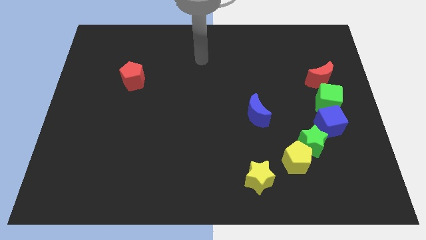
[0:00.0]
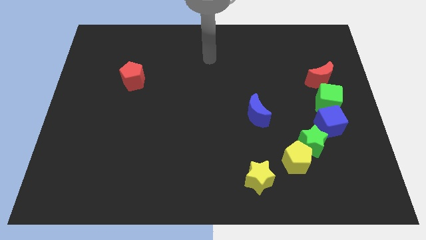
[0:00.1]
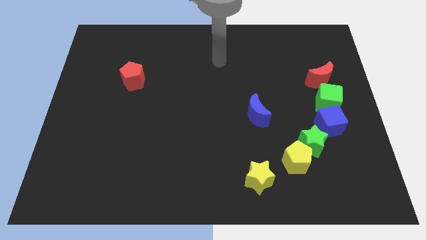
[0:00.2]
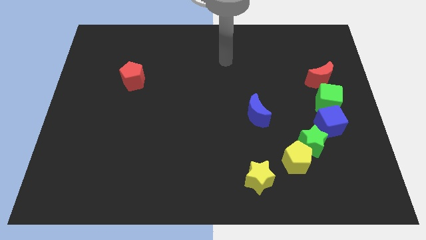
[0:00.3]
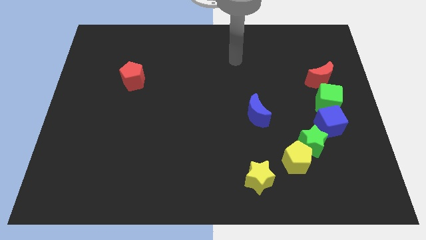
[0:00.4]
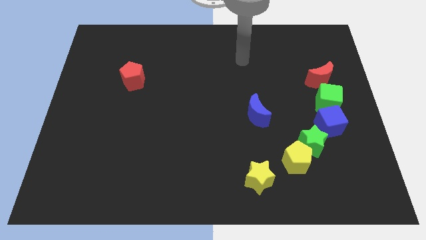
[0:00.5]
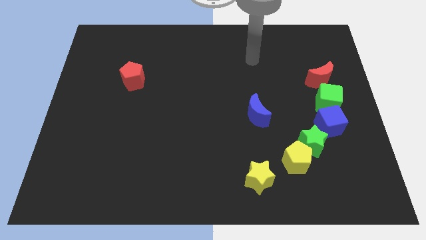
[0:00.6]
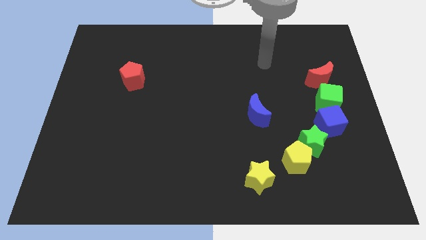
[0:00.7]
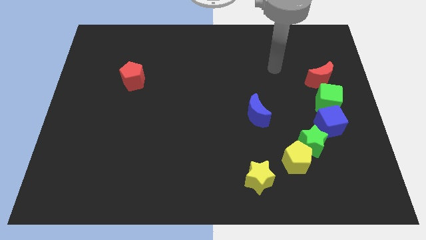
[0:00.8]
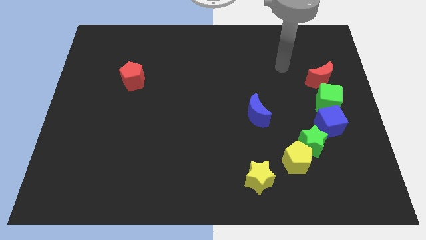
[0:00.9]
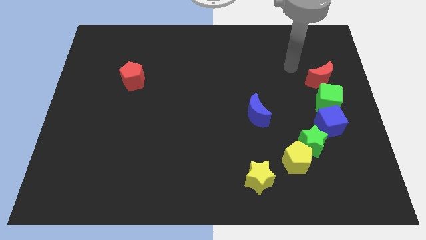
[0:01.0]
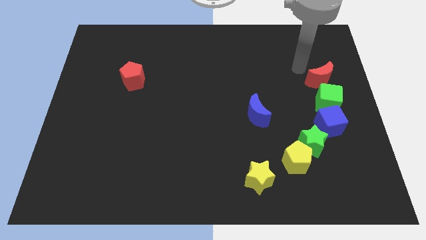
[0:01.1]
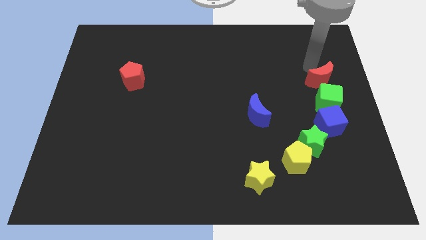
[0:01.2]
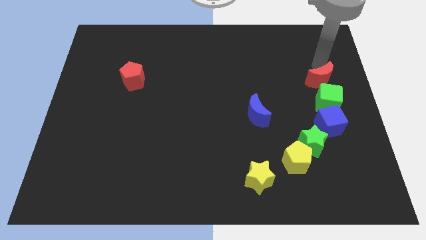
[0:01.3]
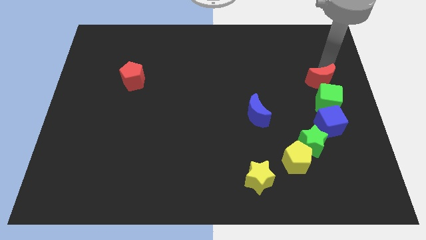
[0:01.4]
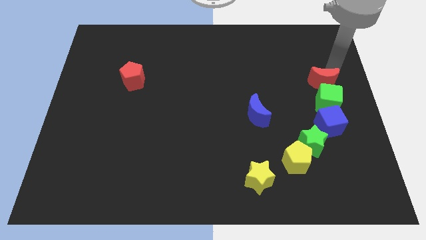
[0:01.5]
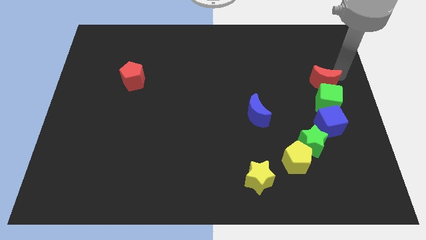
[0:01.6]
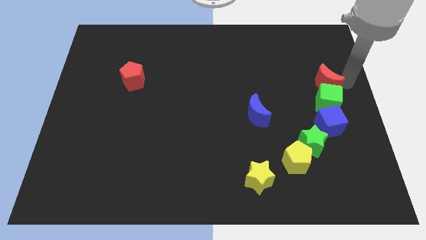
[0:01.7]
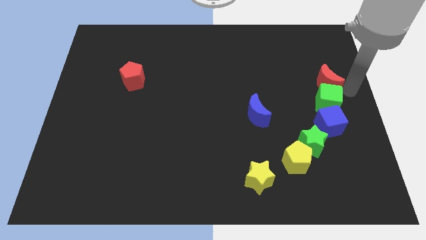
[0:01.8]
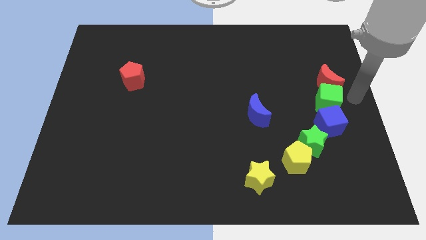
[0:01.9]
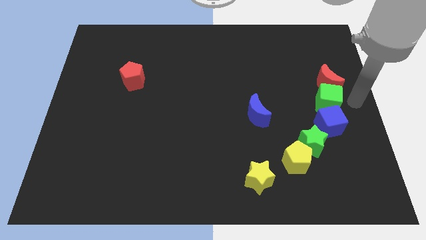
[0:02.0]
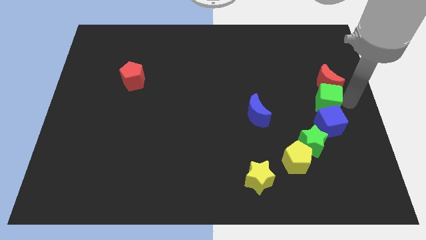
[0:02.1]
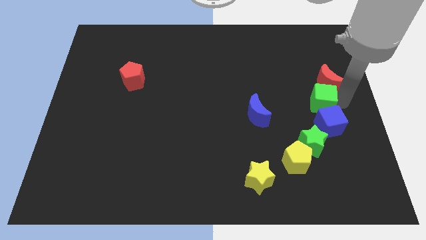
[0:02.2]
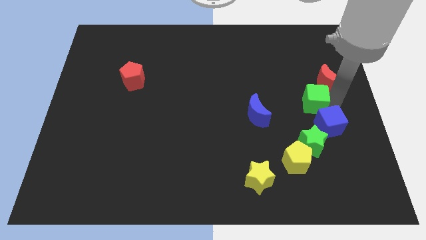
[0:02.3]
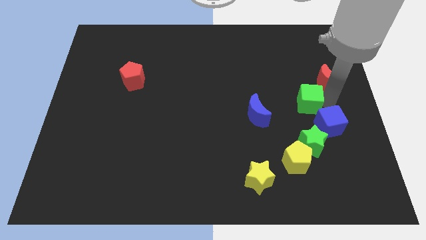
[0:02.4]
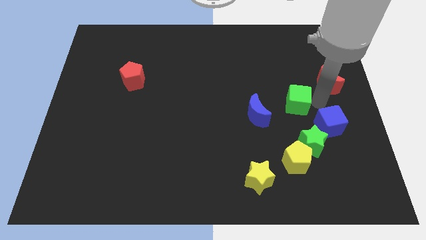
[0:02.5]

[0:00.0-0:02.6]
push the green cube to the left a little bit

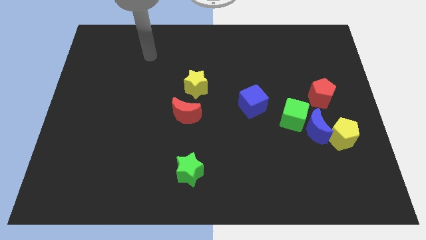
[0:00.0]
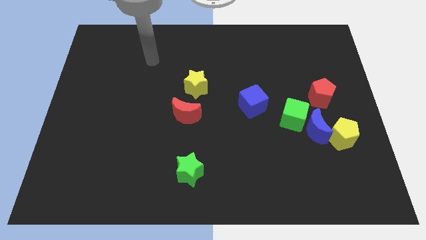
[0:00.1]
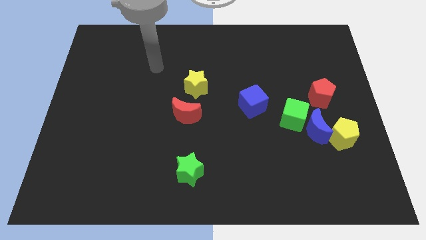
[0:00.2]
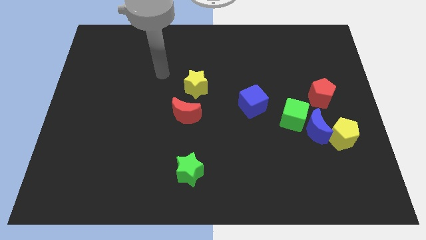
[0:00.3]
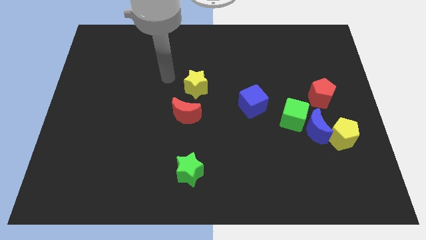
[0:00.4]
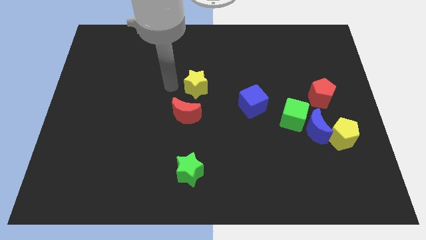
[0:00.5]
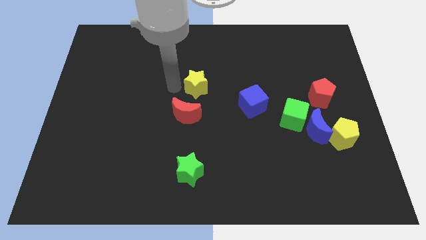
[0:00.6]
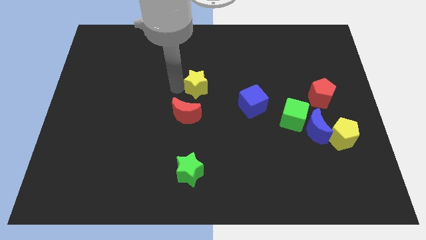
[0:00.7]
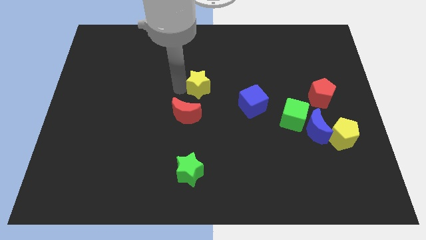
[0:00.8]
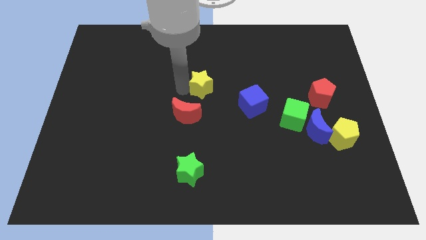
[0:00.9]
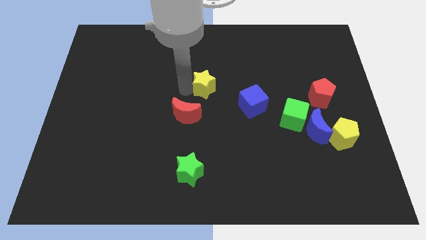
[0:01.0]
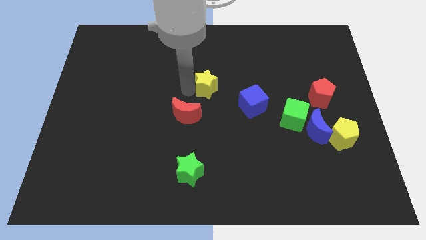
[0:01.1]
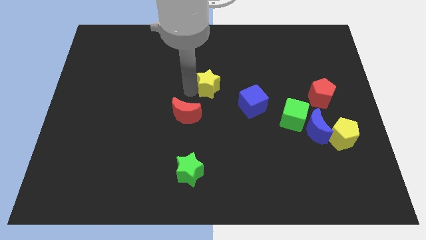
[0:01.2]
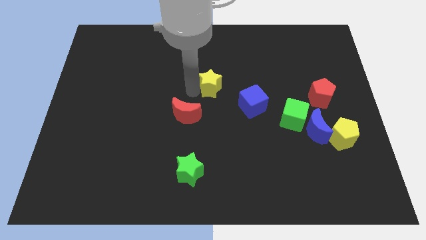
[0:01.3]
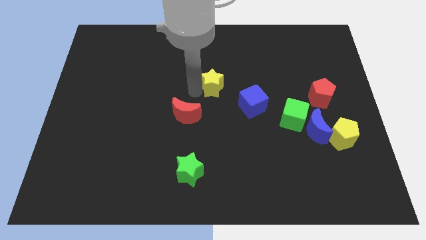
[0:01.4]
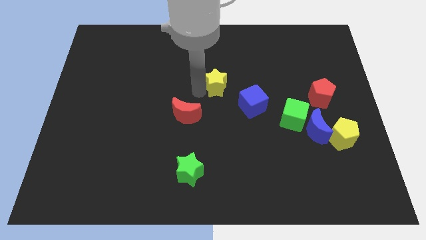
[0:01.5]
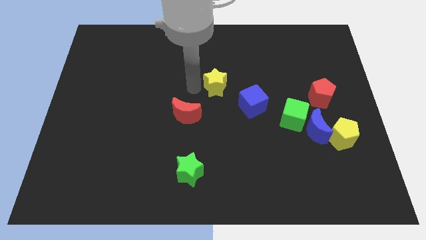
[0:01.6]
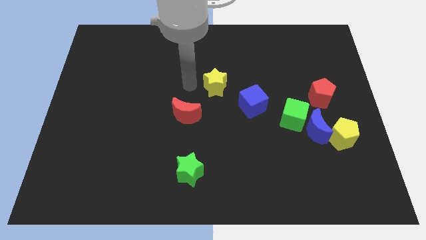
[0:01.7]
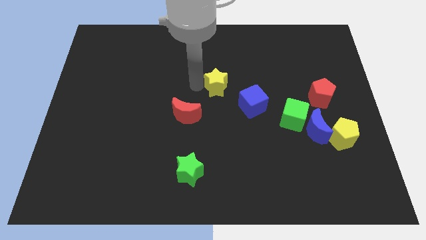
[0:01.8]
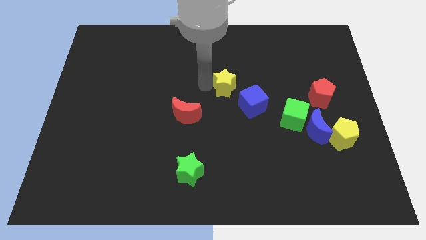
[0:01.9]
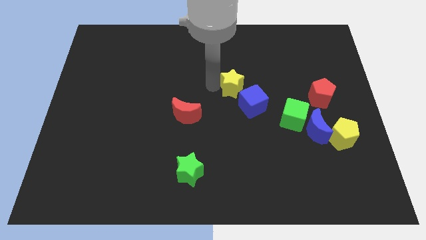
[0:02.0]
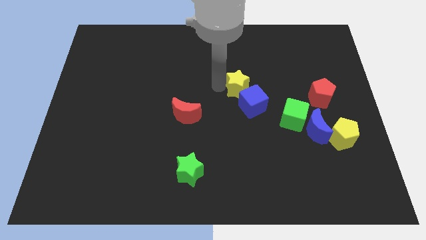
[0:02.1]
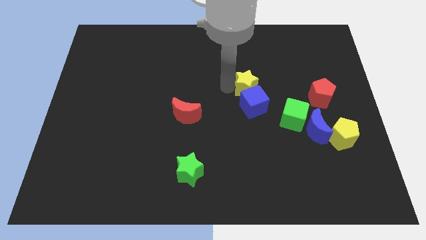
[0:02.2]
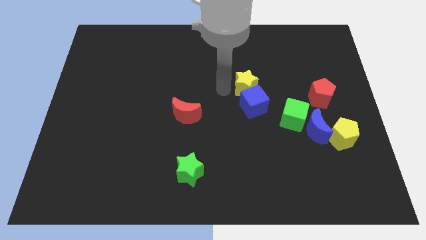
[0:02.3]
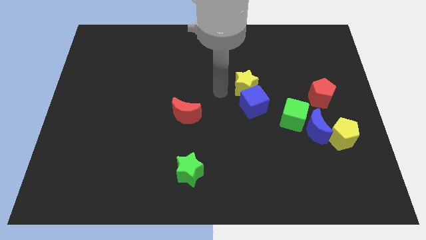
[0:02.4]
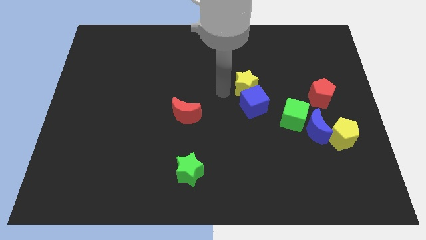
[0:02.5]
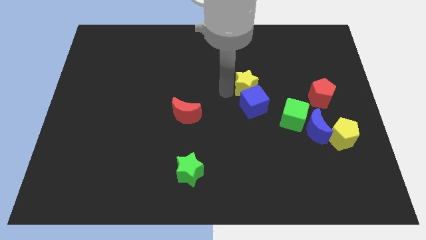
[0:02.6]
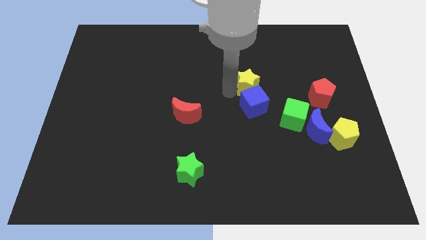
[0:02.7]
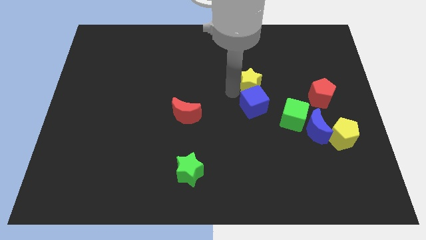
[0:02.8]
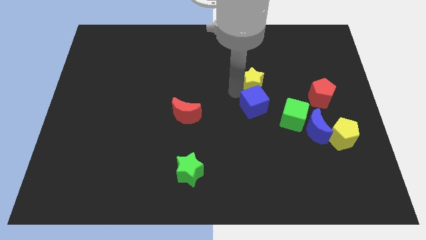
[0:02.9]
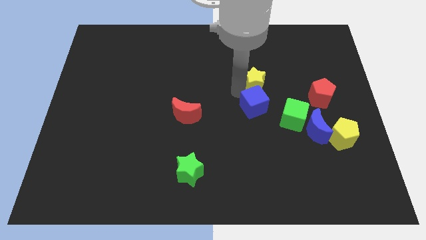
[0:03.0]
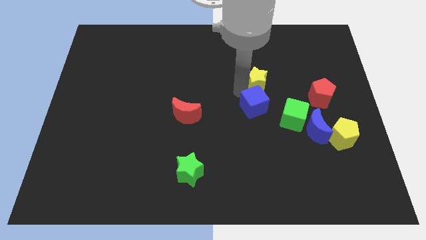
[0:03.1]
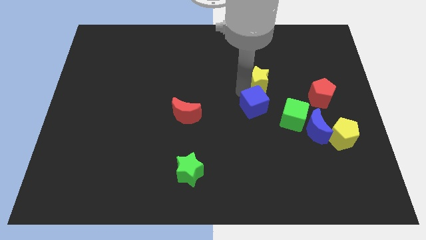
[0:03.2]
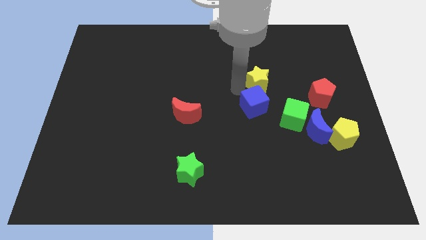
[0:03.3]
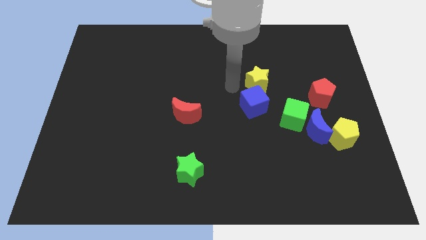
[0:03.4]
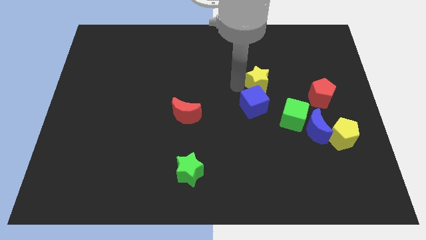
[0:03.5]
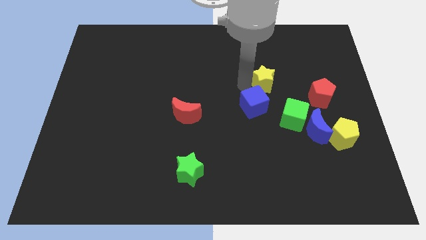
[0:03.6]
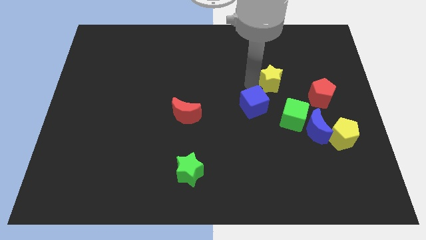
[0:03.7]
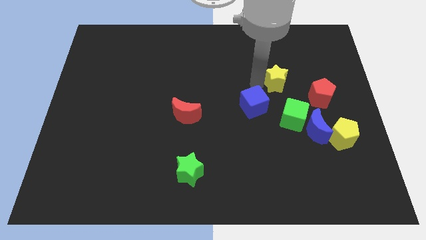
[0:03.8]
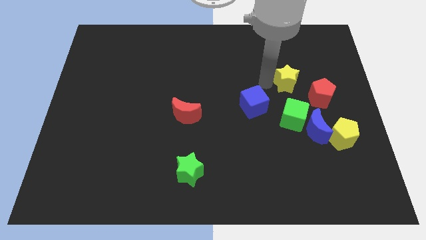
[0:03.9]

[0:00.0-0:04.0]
slide the yellow star right

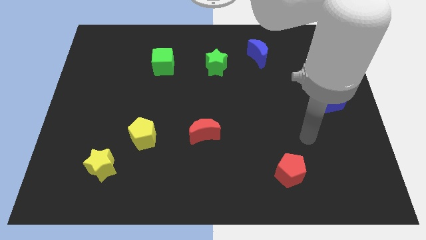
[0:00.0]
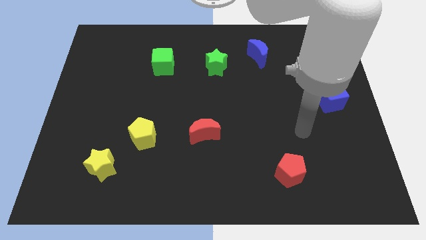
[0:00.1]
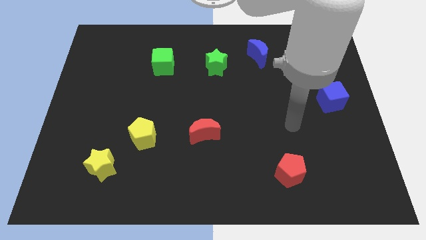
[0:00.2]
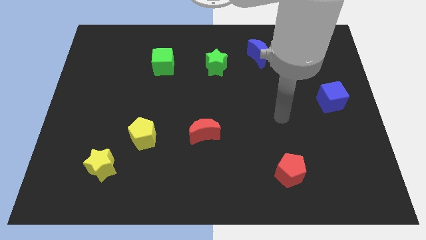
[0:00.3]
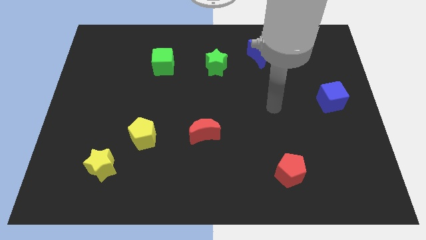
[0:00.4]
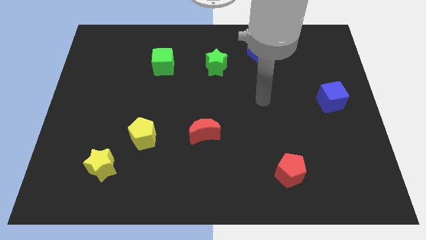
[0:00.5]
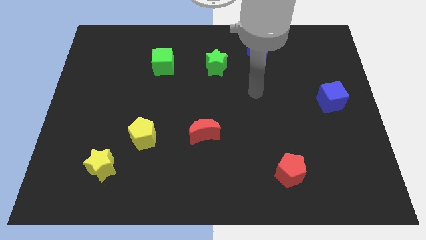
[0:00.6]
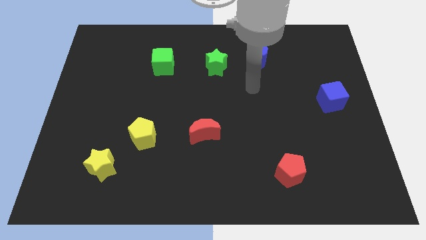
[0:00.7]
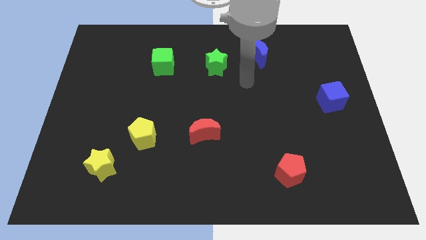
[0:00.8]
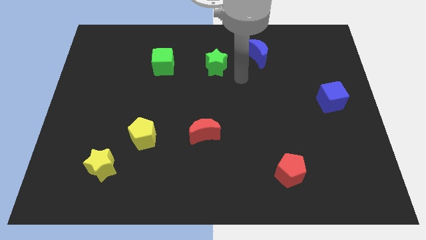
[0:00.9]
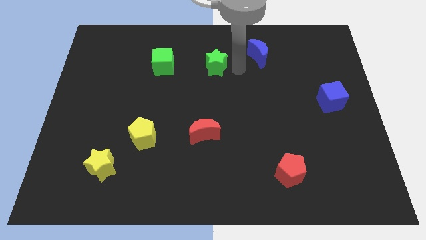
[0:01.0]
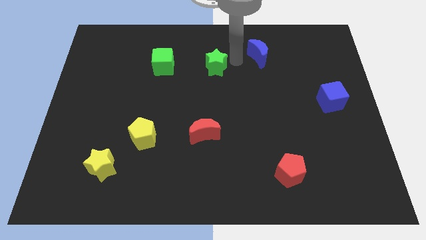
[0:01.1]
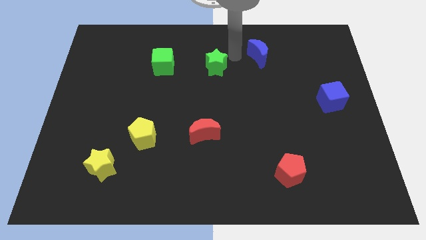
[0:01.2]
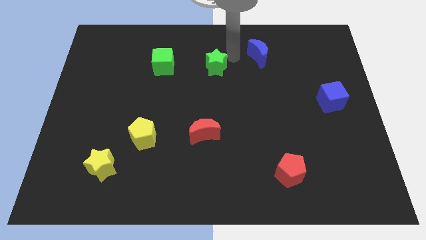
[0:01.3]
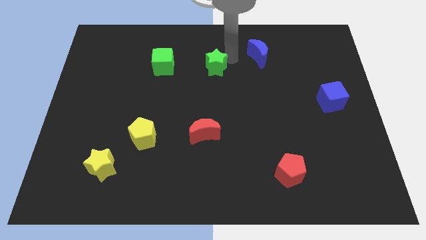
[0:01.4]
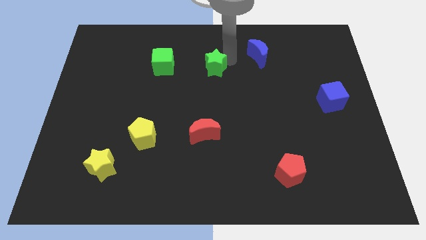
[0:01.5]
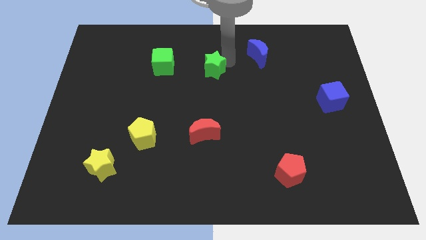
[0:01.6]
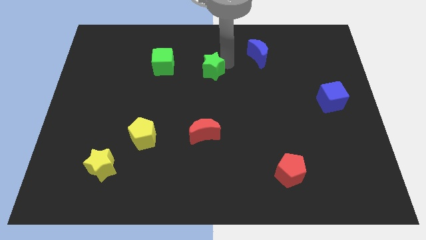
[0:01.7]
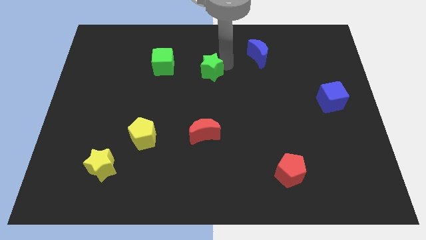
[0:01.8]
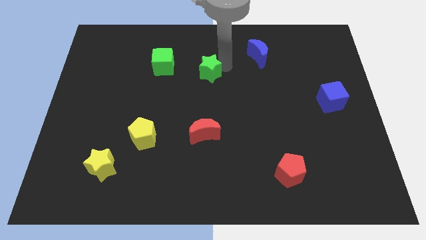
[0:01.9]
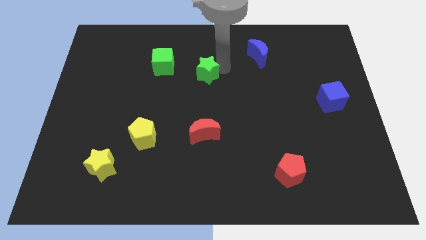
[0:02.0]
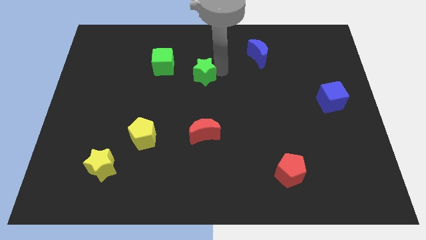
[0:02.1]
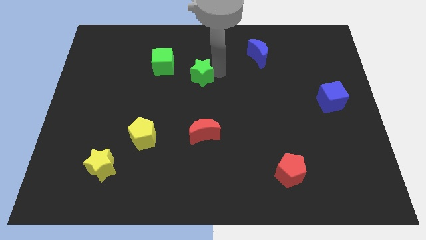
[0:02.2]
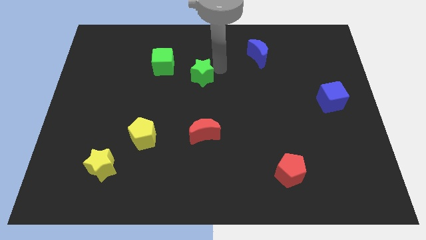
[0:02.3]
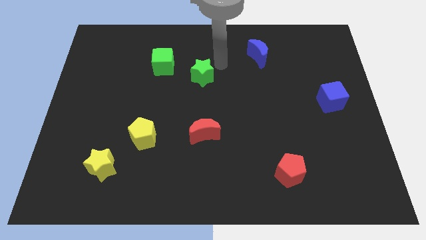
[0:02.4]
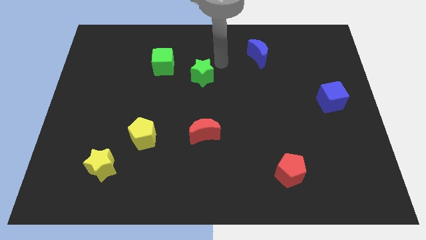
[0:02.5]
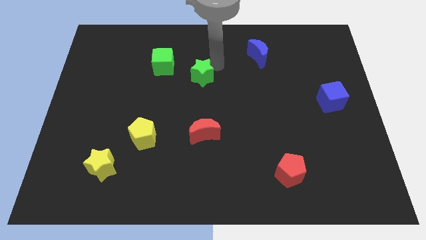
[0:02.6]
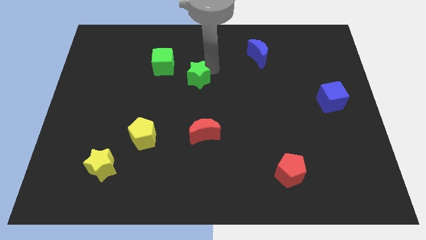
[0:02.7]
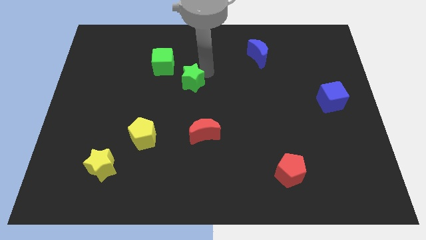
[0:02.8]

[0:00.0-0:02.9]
slightly push the green star downwards and then to the left
